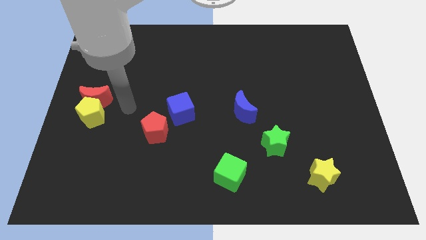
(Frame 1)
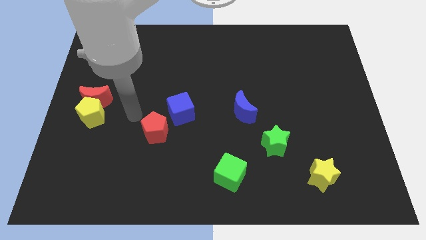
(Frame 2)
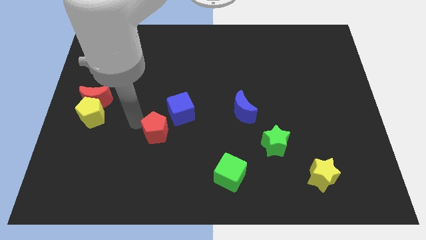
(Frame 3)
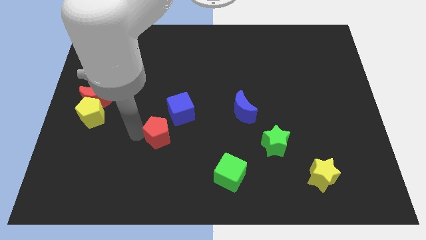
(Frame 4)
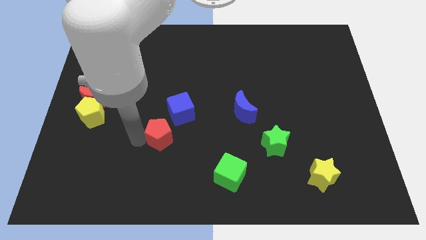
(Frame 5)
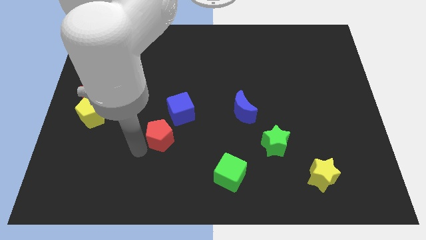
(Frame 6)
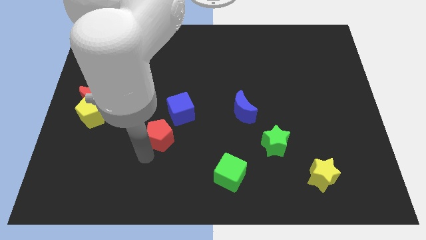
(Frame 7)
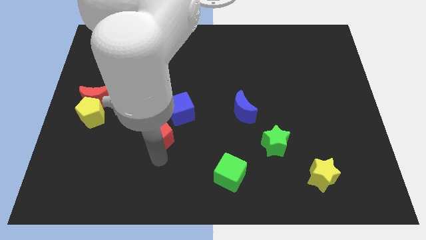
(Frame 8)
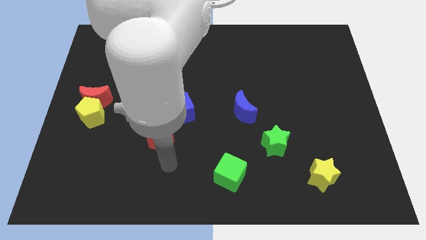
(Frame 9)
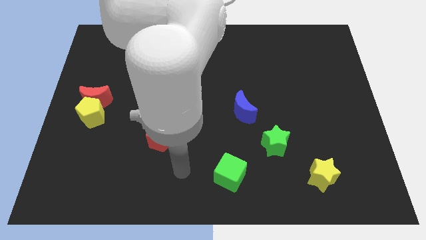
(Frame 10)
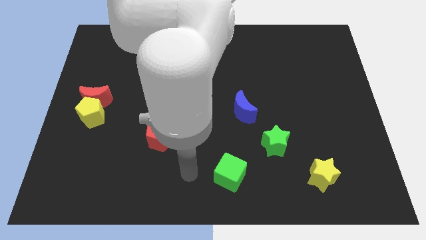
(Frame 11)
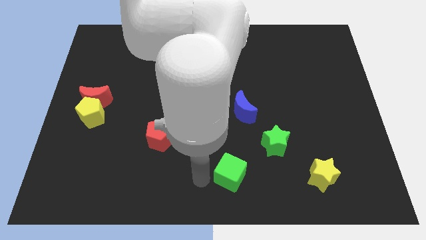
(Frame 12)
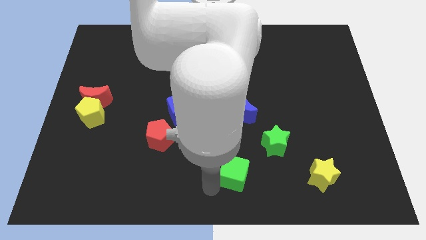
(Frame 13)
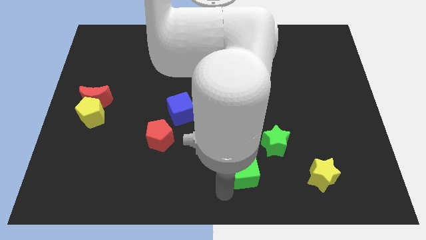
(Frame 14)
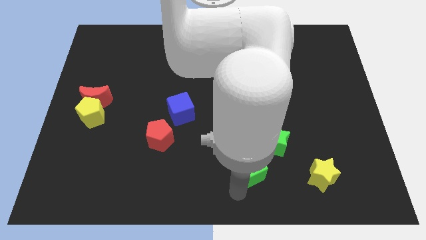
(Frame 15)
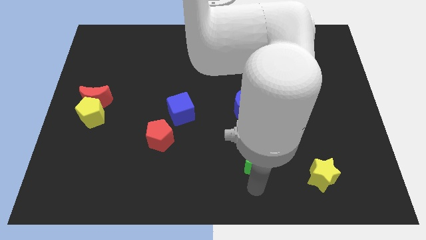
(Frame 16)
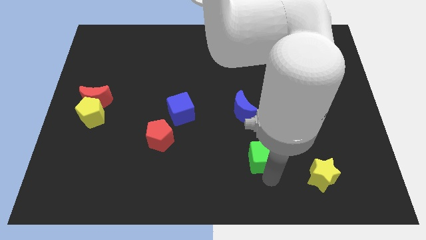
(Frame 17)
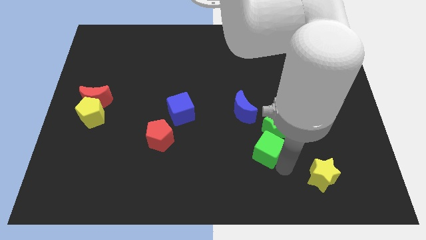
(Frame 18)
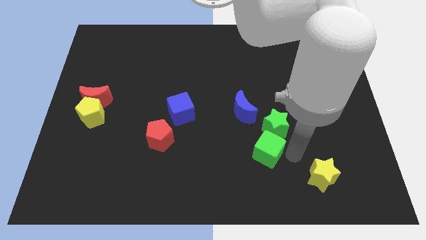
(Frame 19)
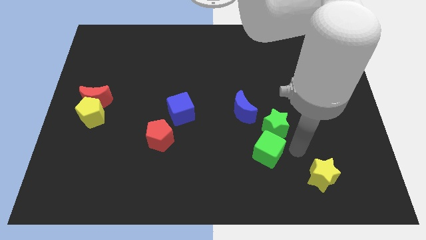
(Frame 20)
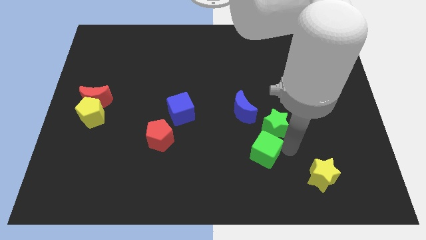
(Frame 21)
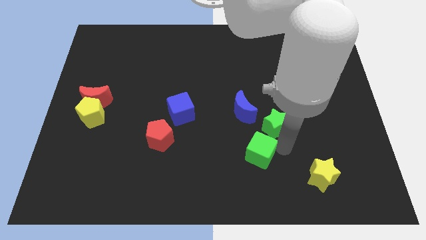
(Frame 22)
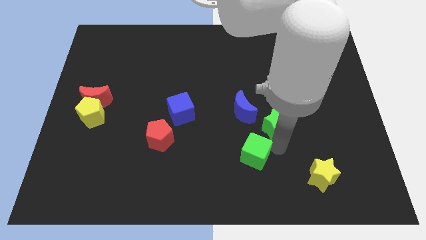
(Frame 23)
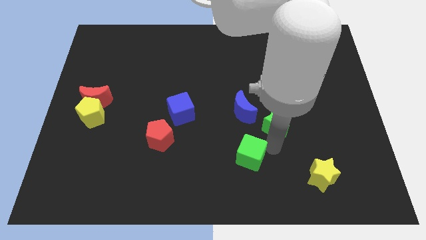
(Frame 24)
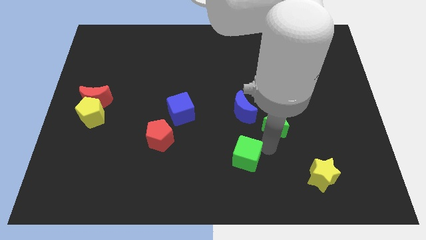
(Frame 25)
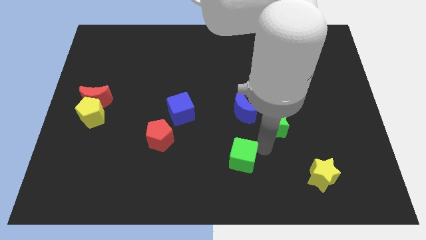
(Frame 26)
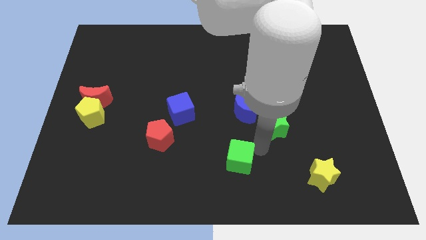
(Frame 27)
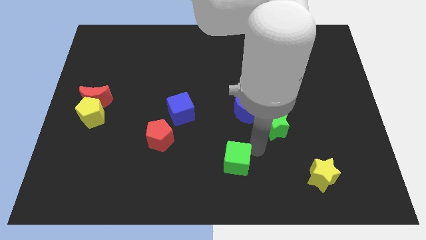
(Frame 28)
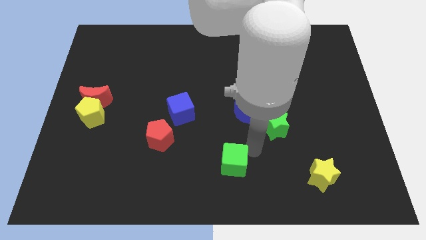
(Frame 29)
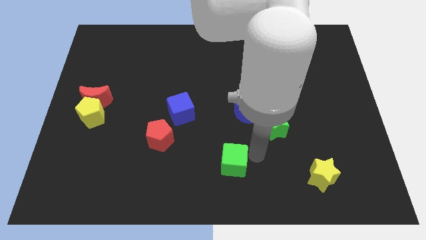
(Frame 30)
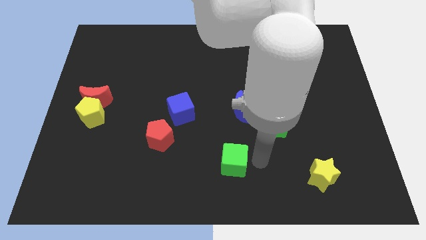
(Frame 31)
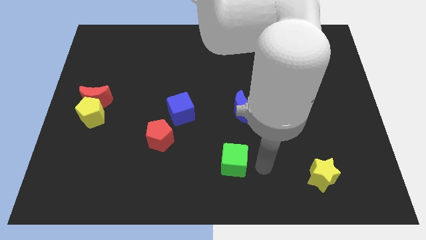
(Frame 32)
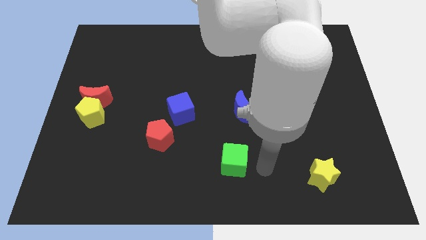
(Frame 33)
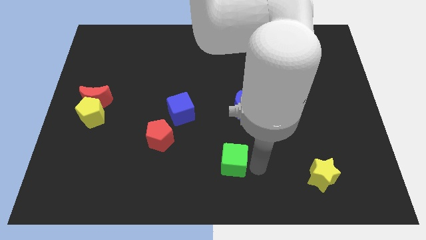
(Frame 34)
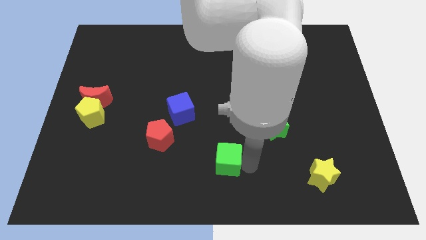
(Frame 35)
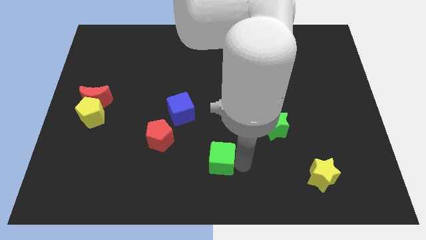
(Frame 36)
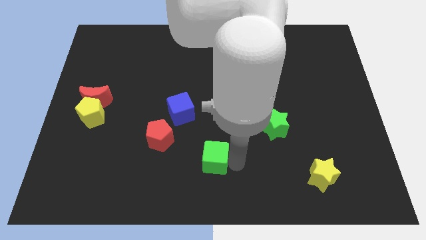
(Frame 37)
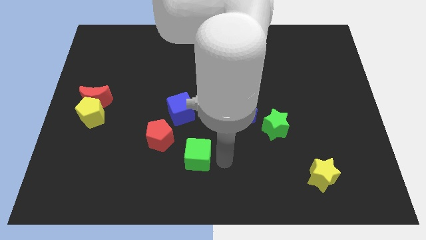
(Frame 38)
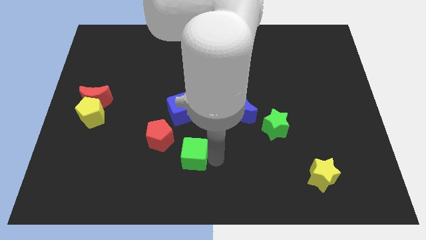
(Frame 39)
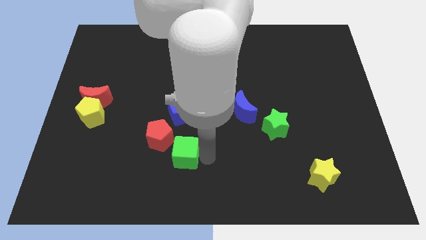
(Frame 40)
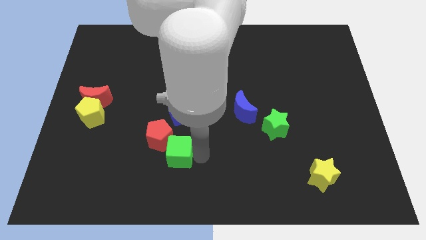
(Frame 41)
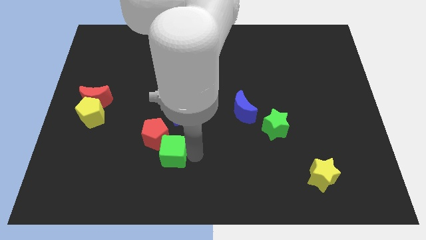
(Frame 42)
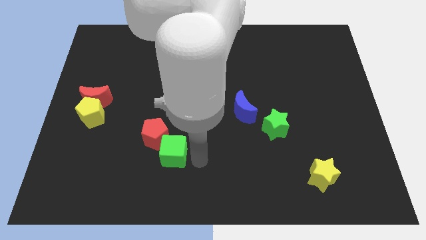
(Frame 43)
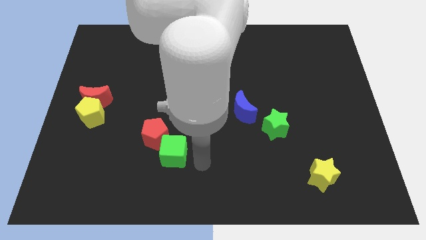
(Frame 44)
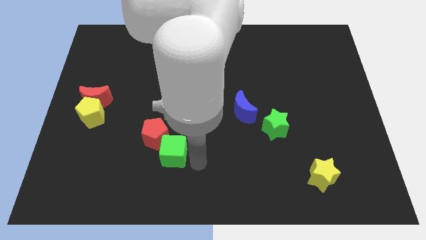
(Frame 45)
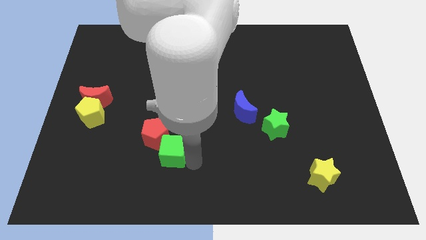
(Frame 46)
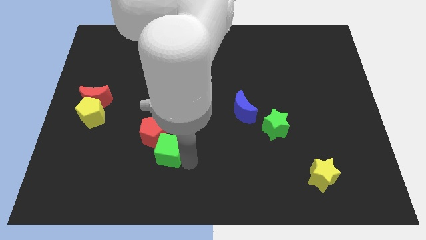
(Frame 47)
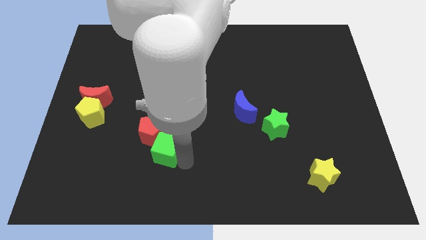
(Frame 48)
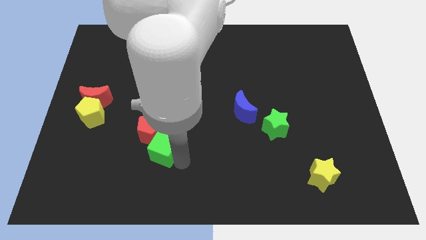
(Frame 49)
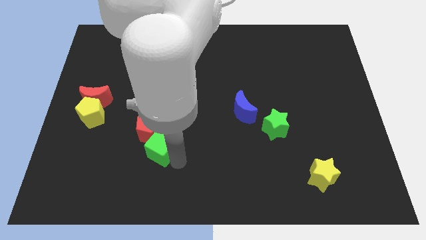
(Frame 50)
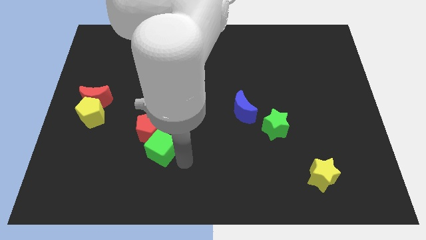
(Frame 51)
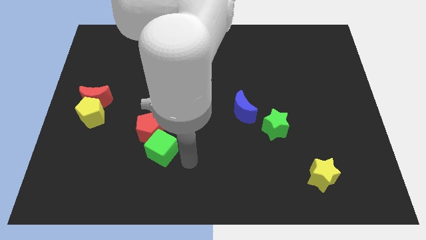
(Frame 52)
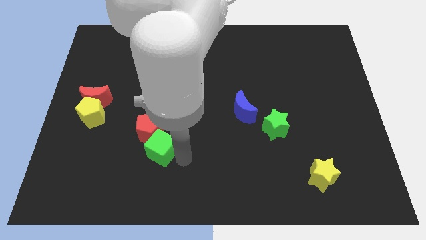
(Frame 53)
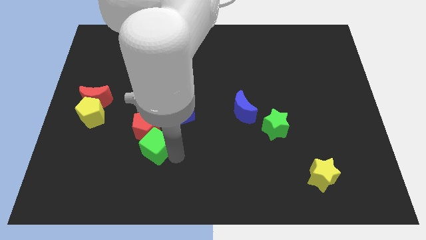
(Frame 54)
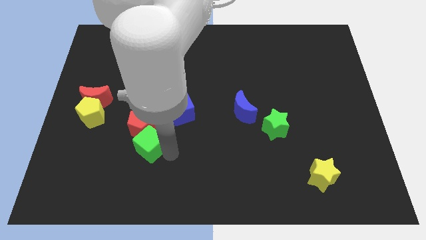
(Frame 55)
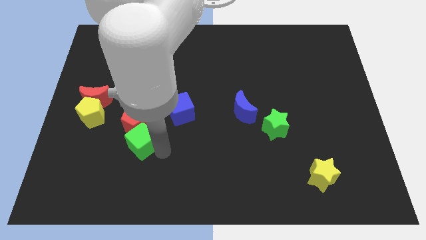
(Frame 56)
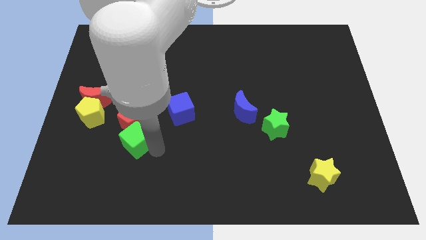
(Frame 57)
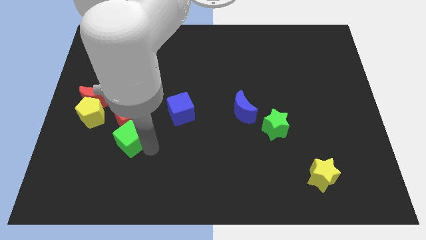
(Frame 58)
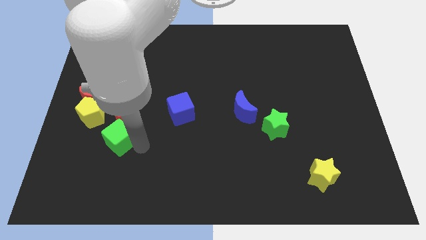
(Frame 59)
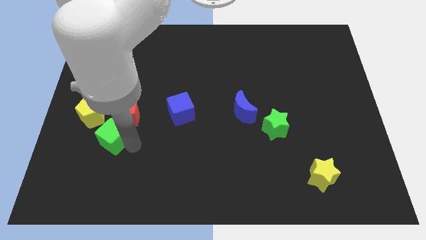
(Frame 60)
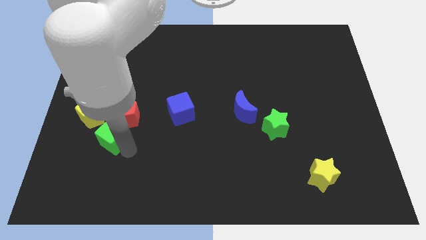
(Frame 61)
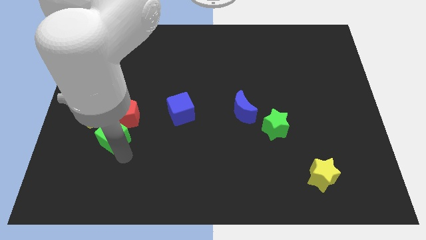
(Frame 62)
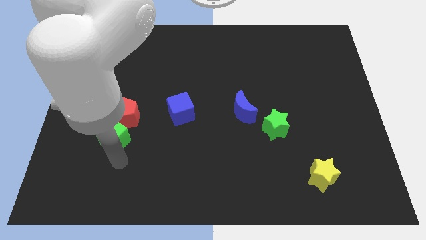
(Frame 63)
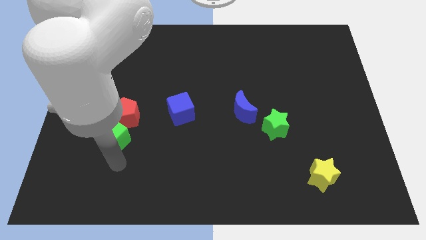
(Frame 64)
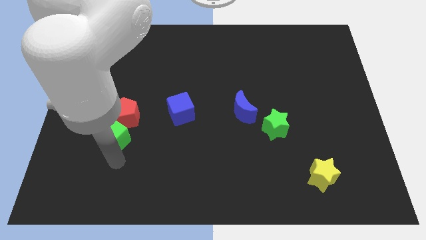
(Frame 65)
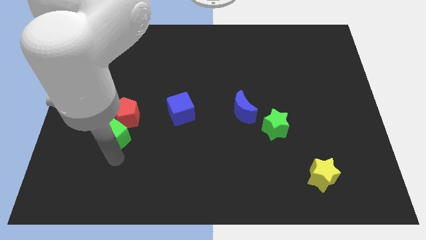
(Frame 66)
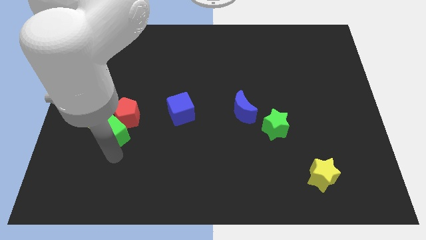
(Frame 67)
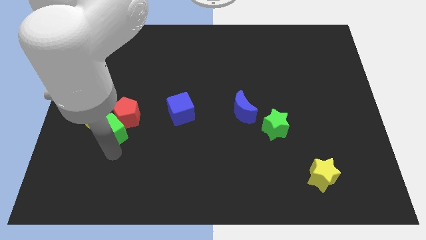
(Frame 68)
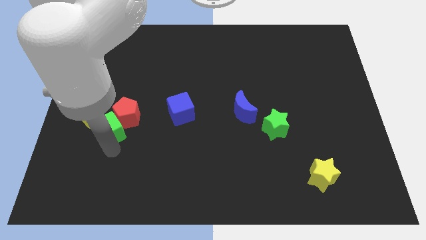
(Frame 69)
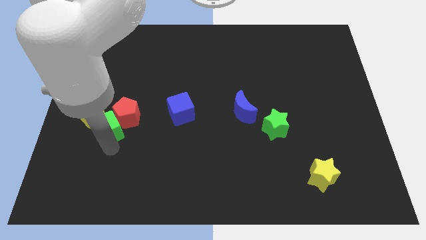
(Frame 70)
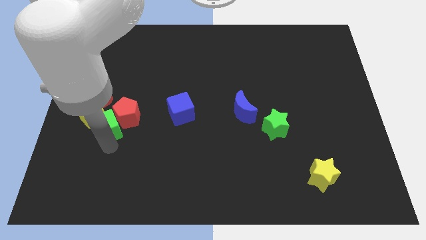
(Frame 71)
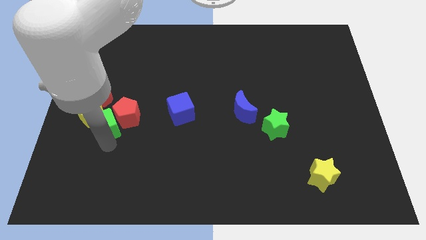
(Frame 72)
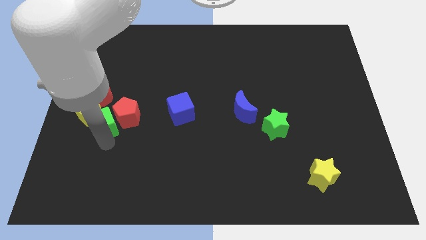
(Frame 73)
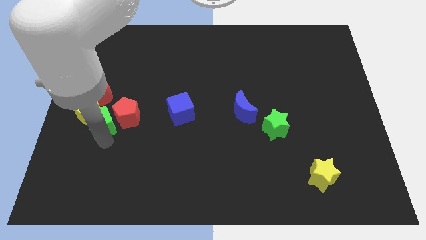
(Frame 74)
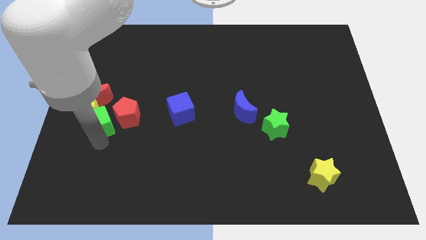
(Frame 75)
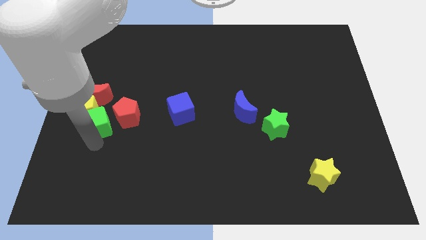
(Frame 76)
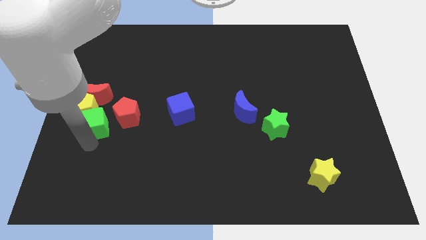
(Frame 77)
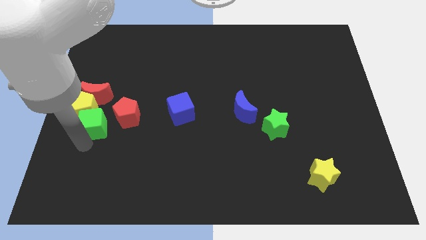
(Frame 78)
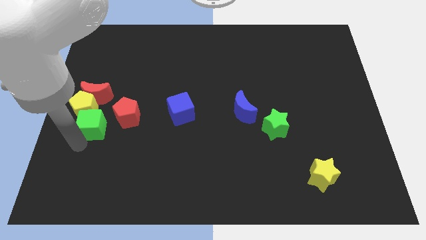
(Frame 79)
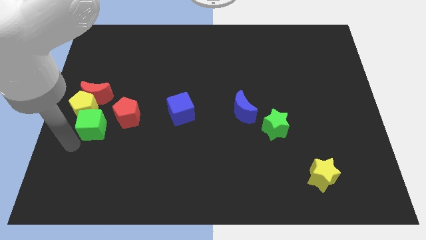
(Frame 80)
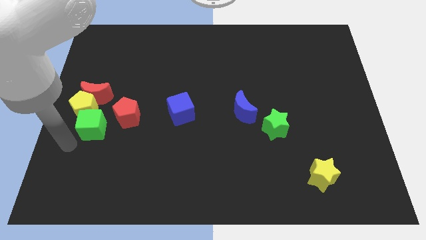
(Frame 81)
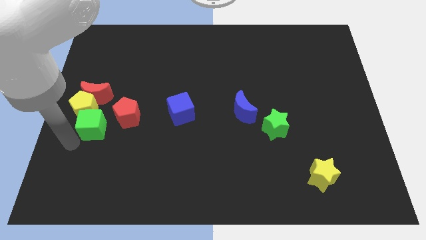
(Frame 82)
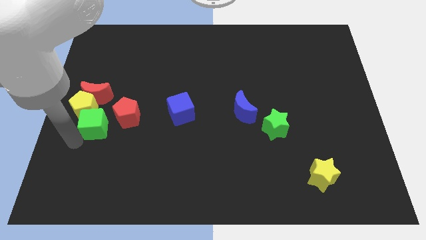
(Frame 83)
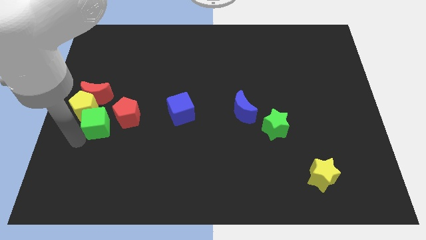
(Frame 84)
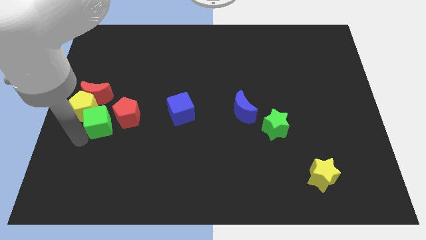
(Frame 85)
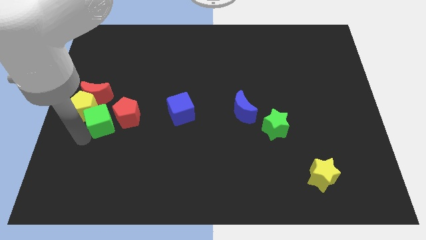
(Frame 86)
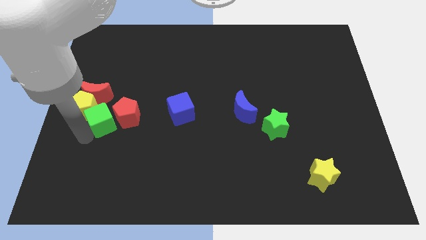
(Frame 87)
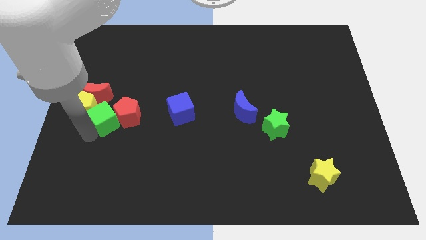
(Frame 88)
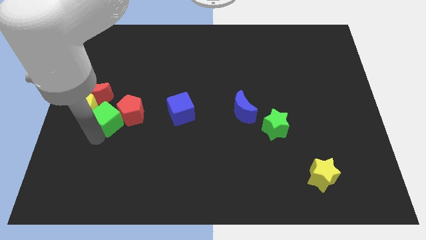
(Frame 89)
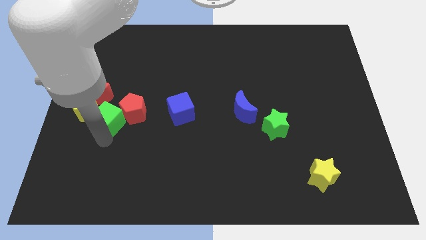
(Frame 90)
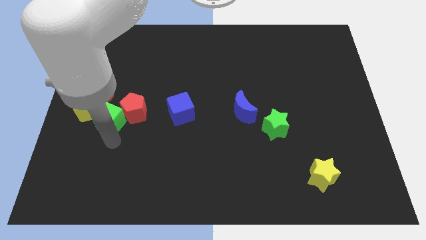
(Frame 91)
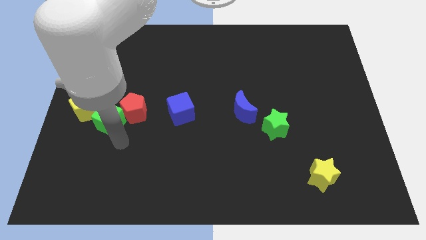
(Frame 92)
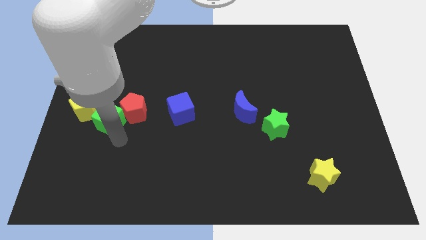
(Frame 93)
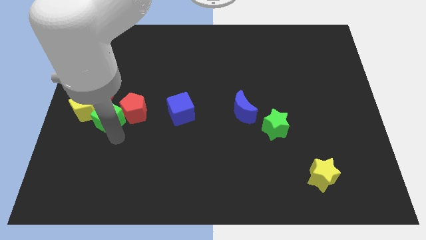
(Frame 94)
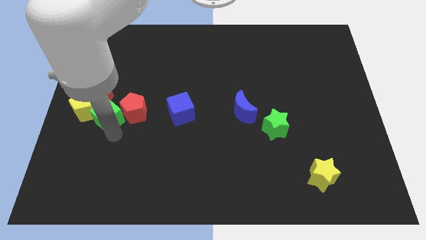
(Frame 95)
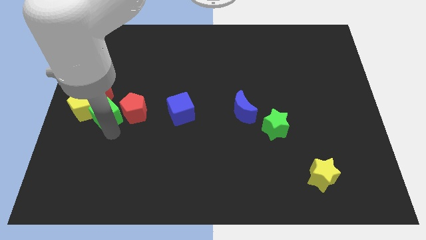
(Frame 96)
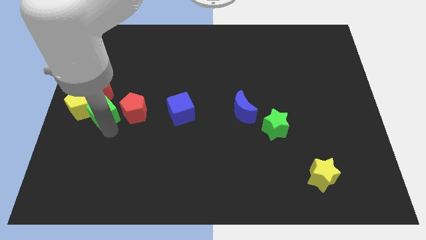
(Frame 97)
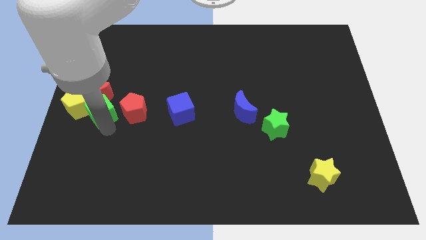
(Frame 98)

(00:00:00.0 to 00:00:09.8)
slide the green cube next to the red moon
